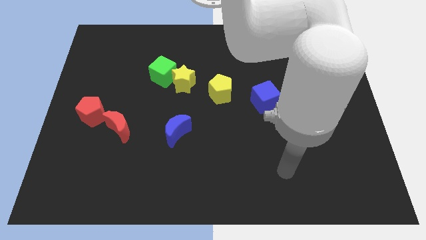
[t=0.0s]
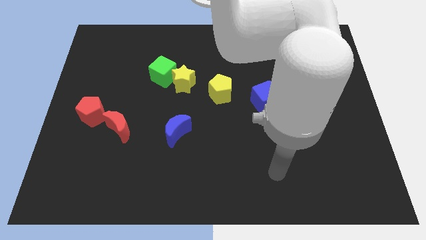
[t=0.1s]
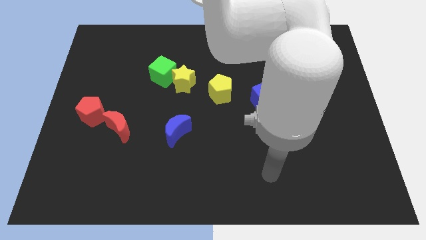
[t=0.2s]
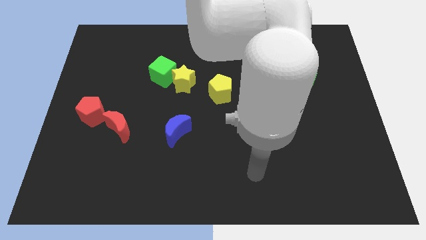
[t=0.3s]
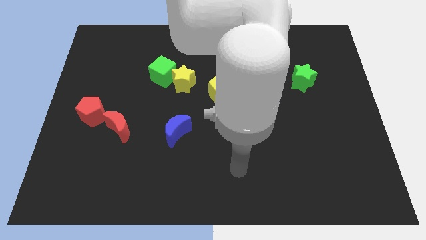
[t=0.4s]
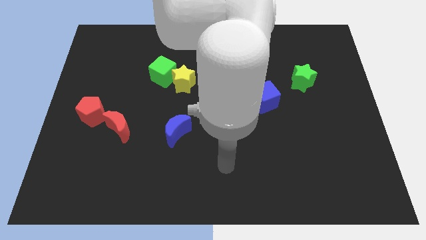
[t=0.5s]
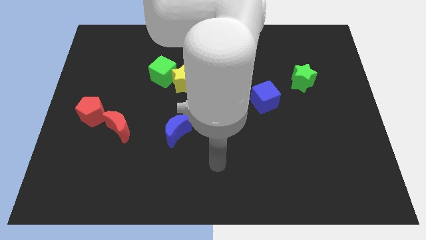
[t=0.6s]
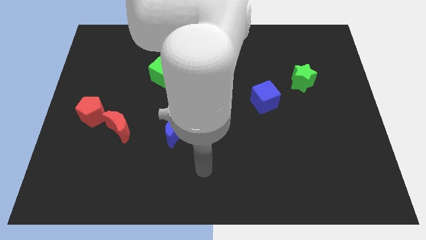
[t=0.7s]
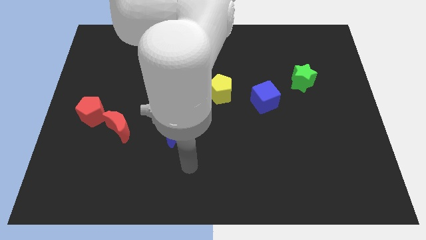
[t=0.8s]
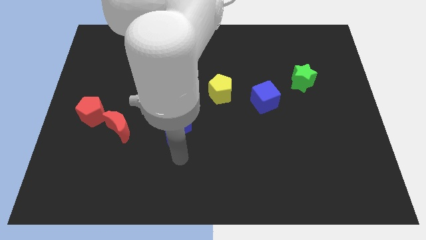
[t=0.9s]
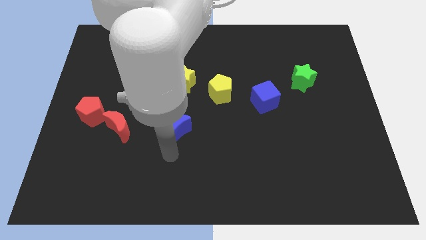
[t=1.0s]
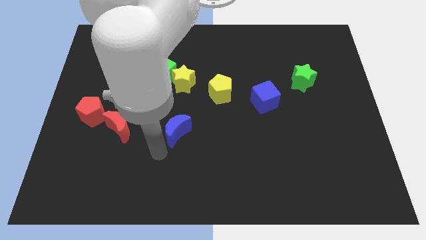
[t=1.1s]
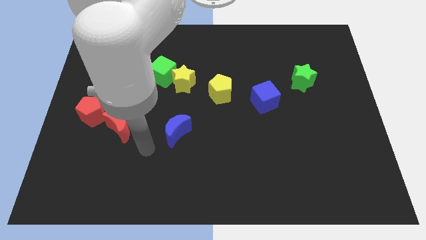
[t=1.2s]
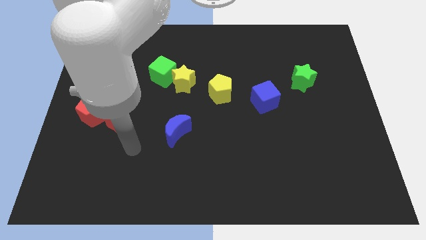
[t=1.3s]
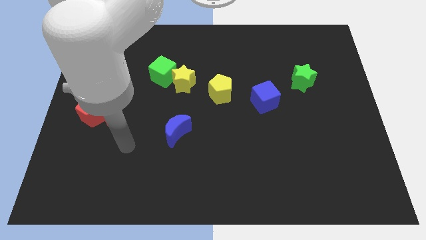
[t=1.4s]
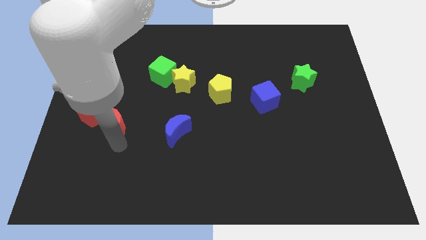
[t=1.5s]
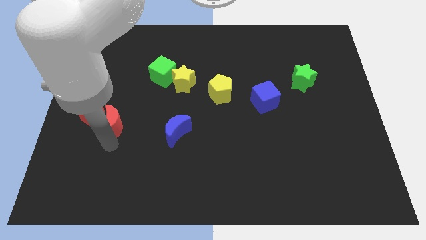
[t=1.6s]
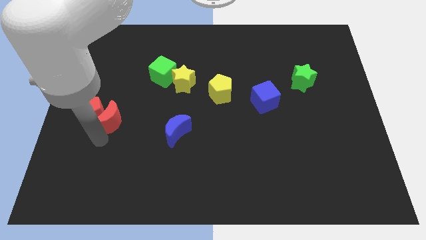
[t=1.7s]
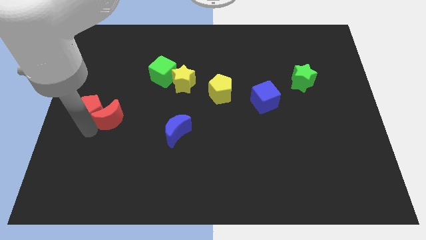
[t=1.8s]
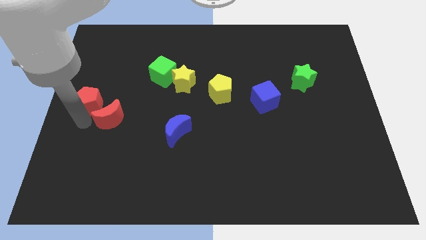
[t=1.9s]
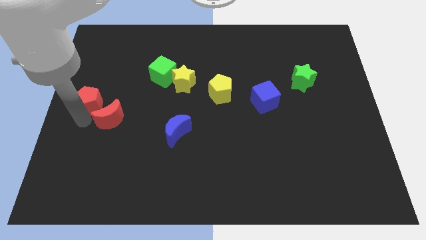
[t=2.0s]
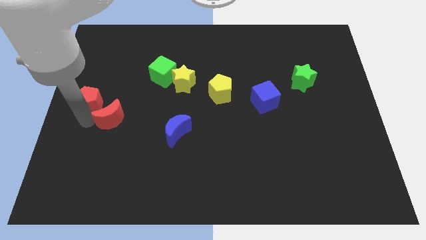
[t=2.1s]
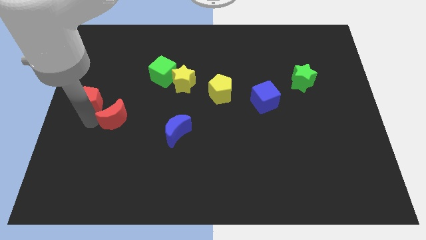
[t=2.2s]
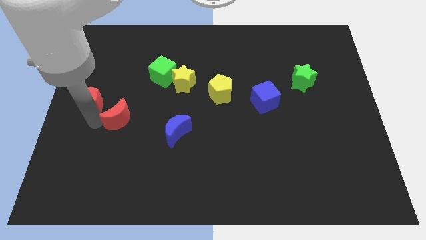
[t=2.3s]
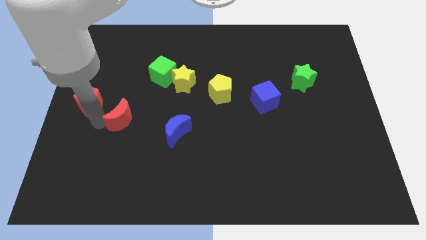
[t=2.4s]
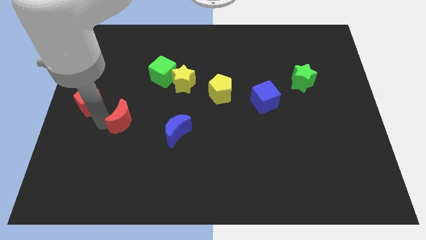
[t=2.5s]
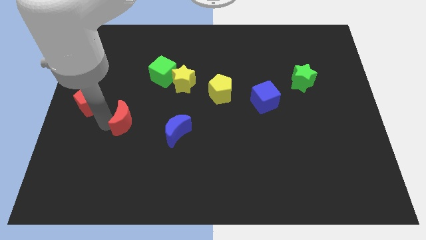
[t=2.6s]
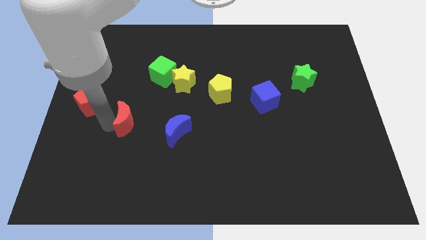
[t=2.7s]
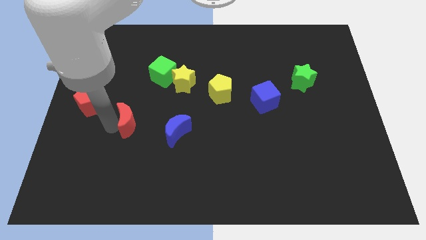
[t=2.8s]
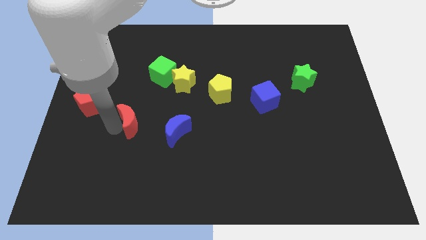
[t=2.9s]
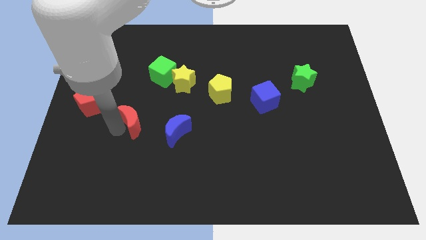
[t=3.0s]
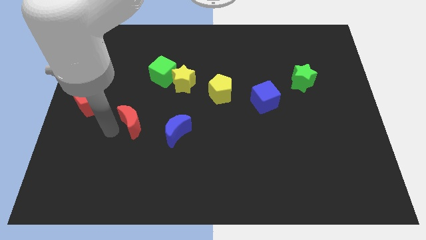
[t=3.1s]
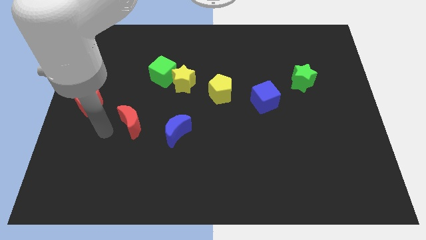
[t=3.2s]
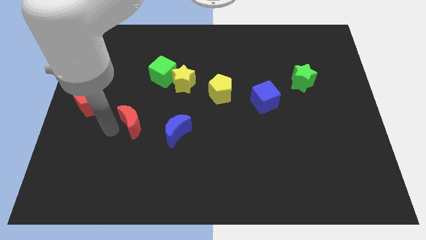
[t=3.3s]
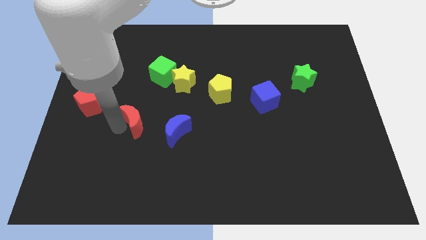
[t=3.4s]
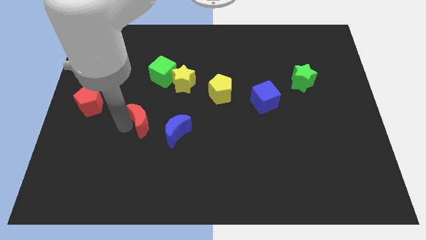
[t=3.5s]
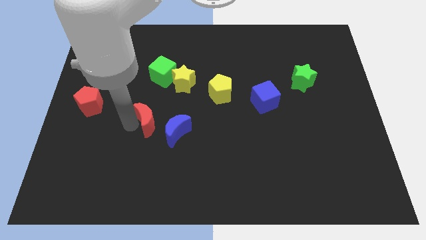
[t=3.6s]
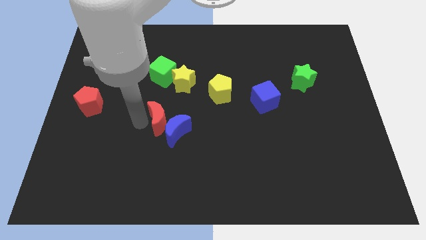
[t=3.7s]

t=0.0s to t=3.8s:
move the red moon a little bit right

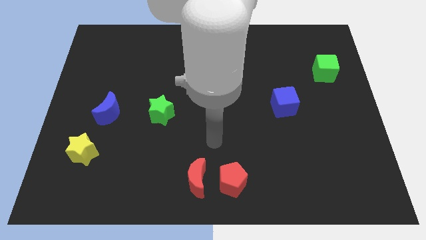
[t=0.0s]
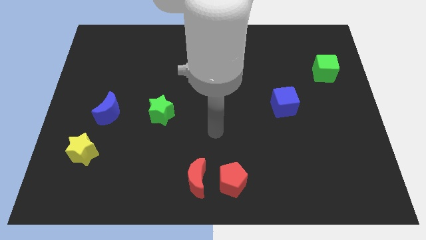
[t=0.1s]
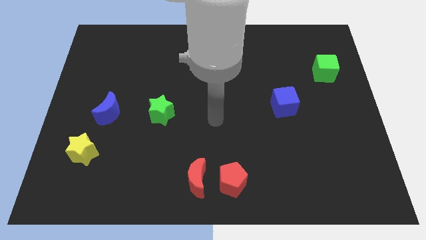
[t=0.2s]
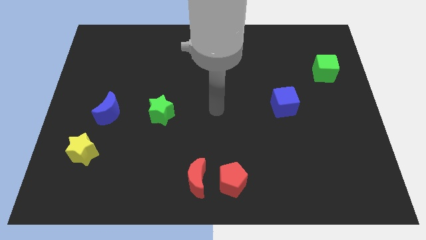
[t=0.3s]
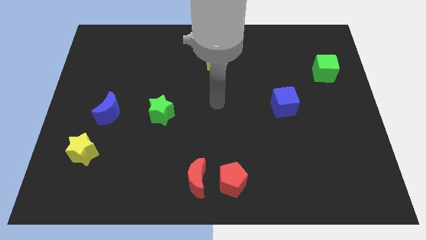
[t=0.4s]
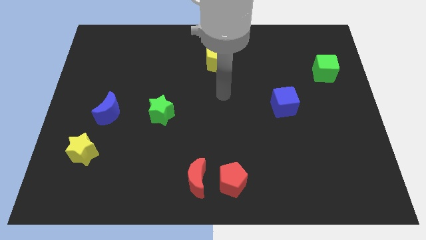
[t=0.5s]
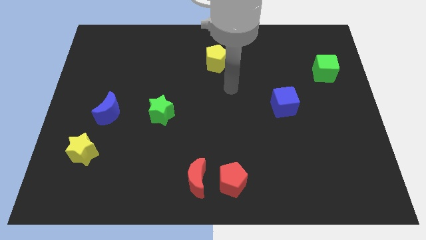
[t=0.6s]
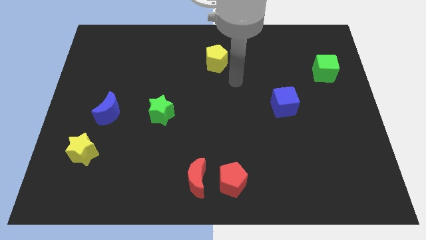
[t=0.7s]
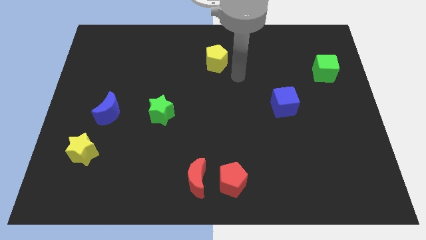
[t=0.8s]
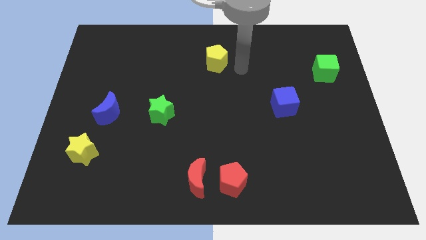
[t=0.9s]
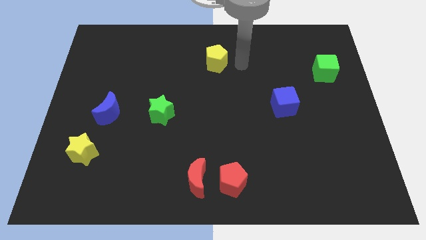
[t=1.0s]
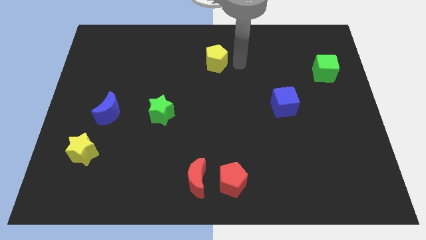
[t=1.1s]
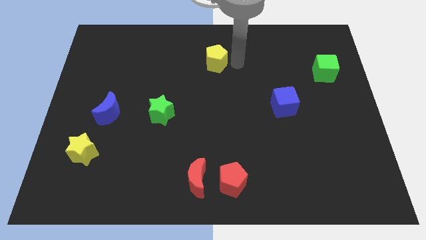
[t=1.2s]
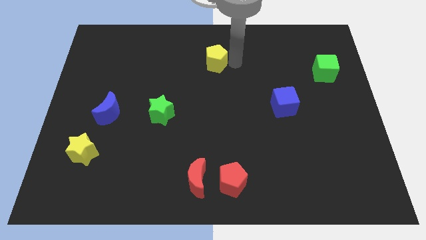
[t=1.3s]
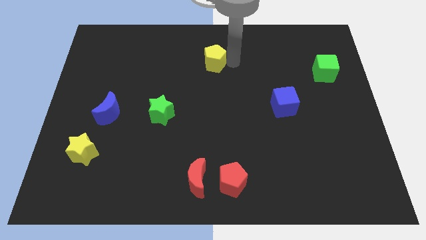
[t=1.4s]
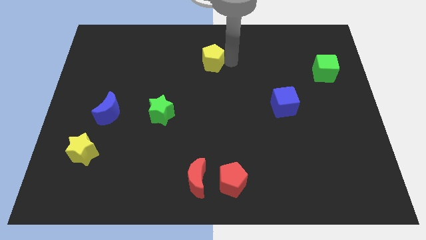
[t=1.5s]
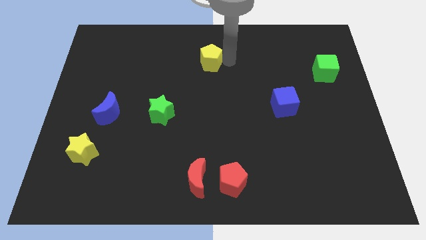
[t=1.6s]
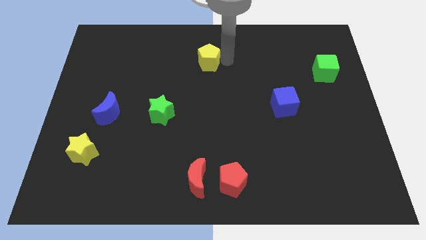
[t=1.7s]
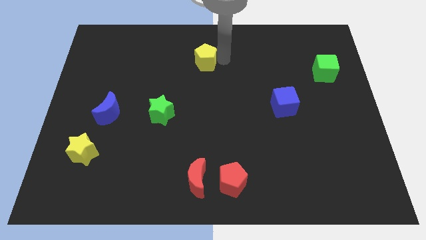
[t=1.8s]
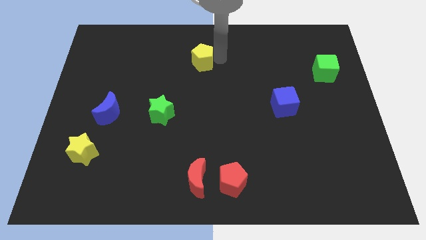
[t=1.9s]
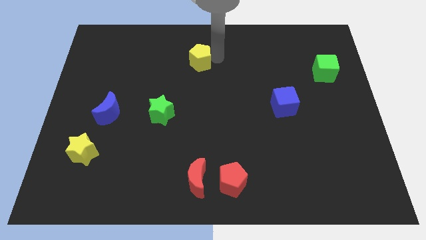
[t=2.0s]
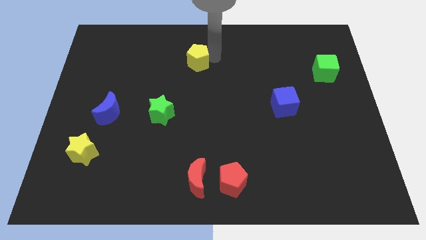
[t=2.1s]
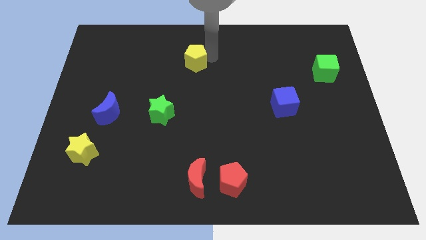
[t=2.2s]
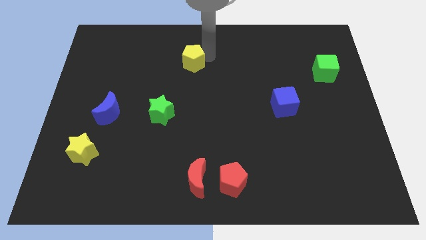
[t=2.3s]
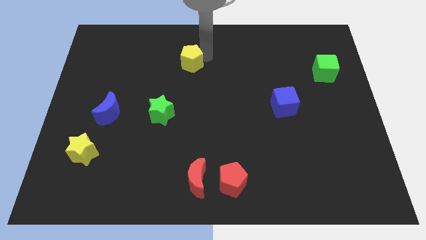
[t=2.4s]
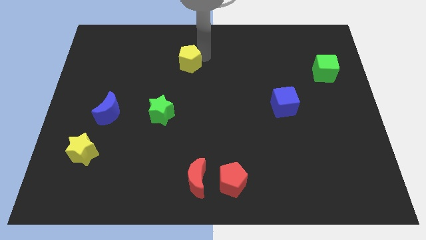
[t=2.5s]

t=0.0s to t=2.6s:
move the yellow pentagon somewhat to the left

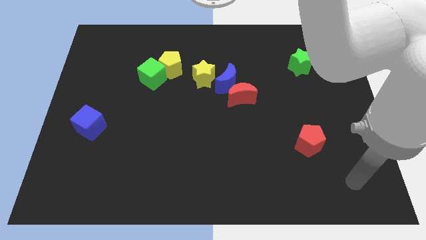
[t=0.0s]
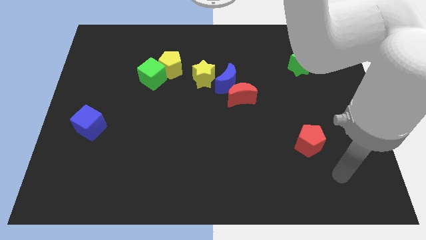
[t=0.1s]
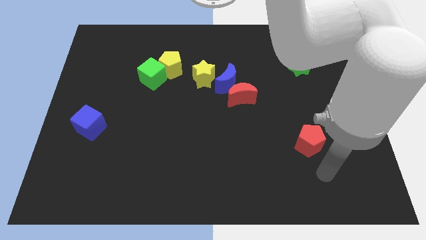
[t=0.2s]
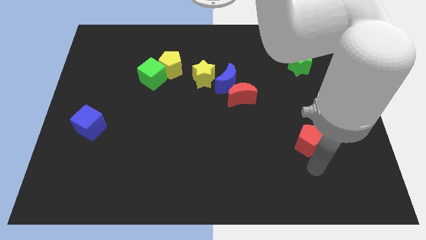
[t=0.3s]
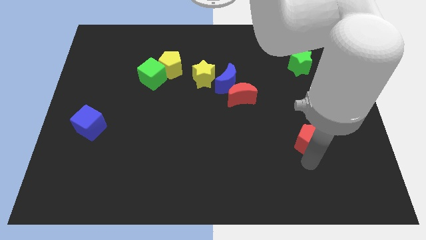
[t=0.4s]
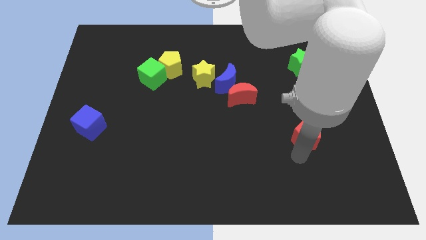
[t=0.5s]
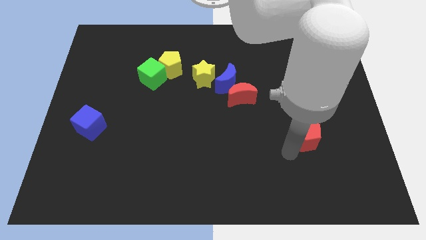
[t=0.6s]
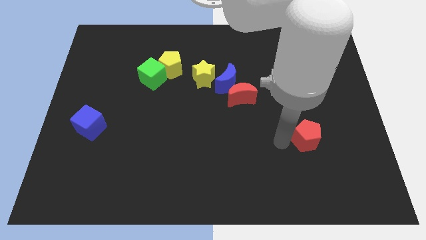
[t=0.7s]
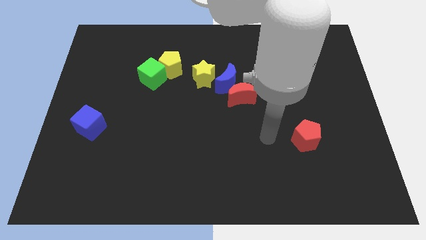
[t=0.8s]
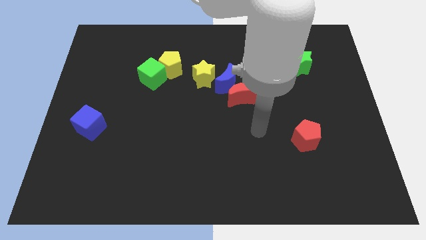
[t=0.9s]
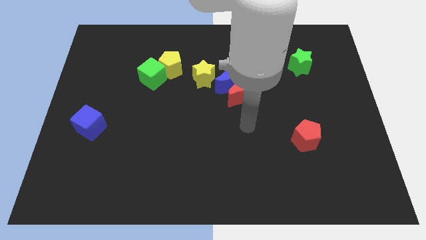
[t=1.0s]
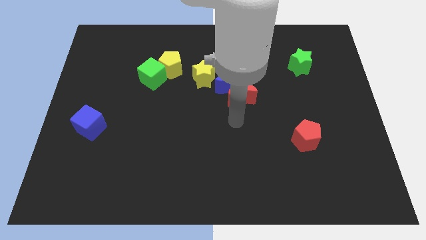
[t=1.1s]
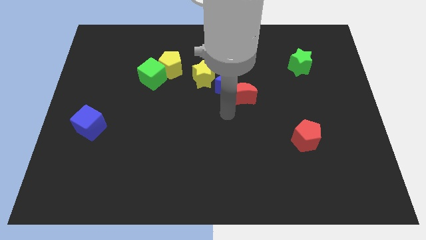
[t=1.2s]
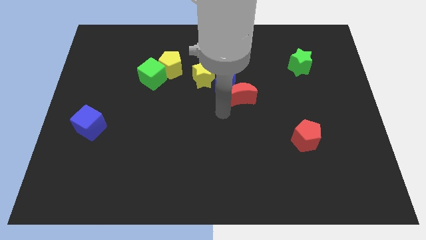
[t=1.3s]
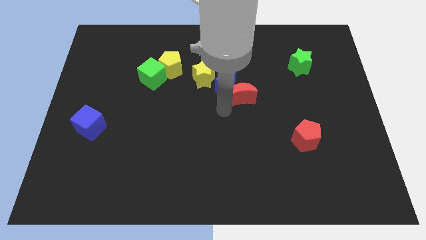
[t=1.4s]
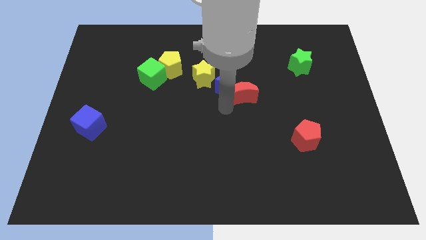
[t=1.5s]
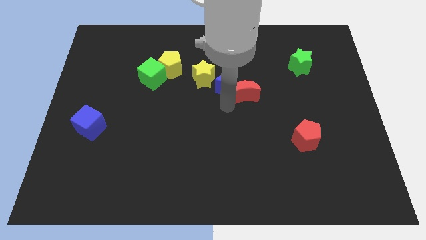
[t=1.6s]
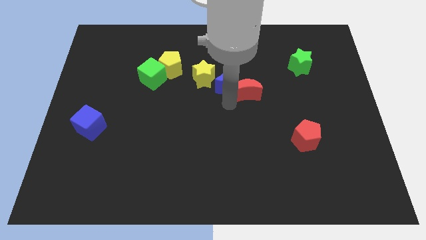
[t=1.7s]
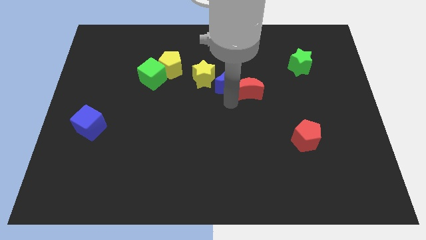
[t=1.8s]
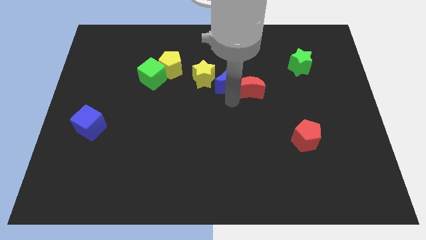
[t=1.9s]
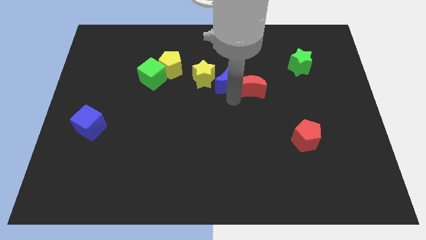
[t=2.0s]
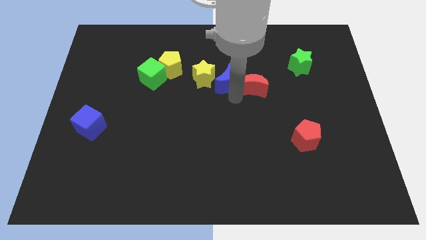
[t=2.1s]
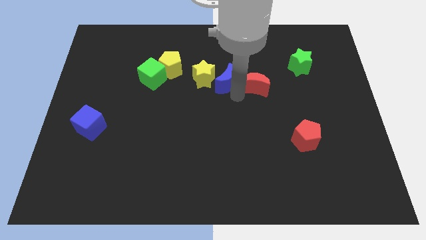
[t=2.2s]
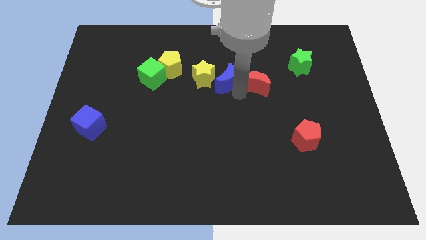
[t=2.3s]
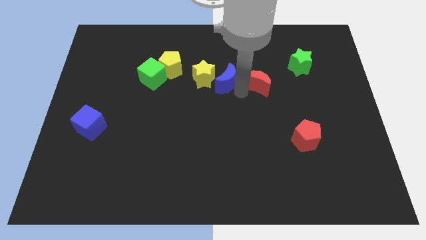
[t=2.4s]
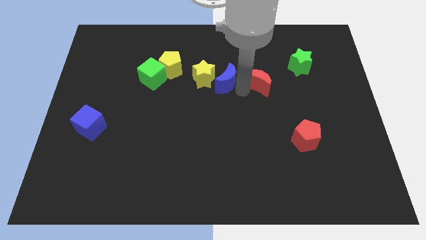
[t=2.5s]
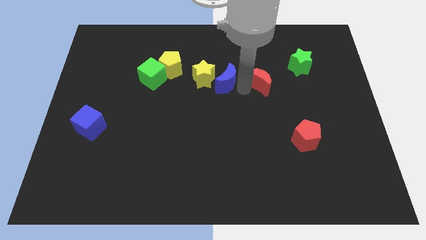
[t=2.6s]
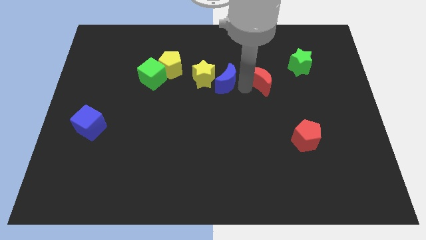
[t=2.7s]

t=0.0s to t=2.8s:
slide the red moon upwards and to the right a little
